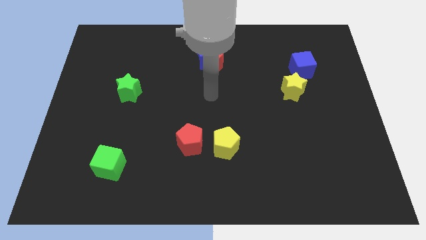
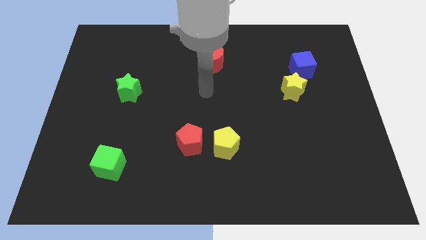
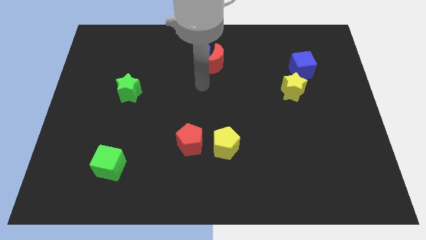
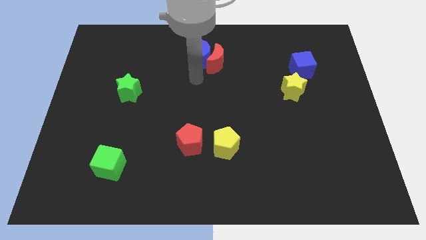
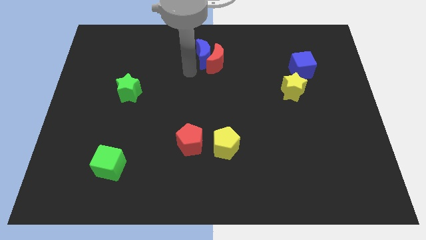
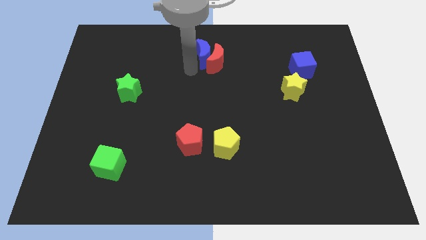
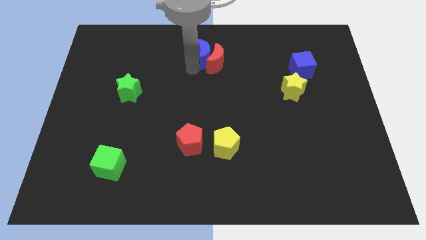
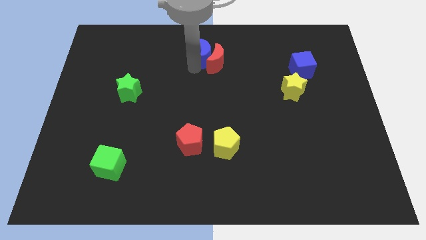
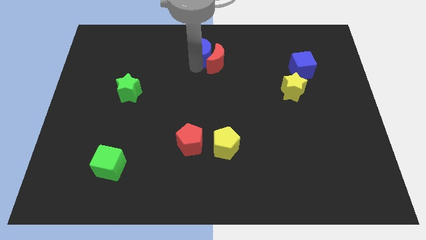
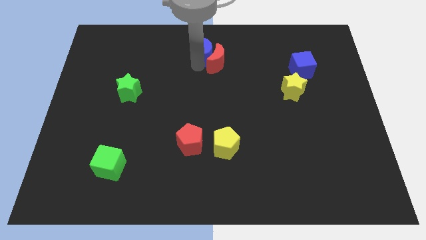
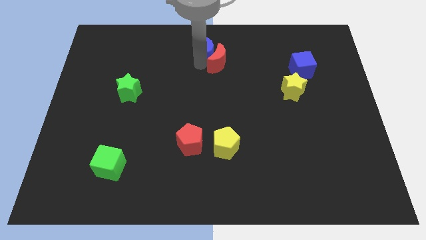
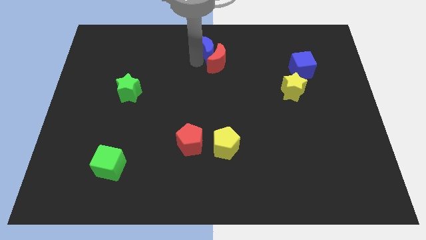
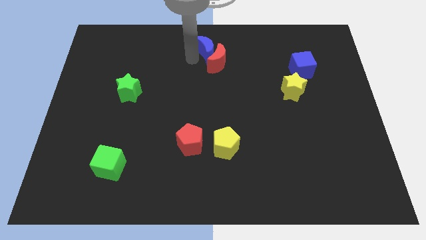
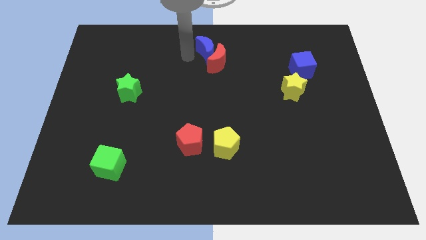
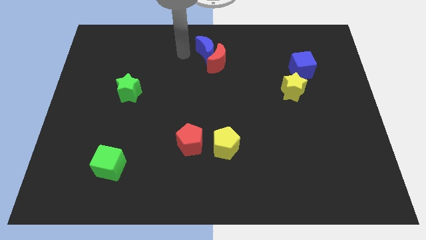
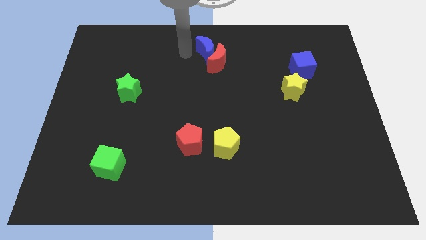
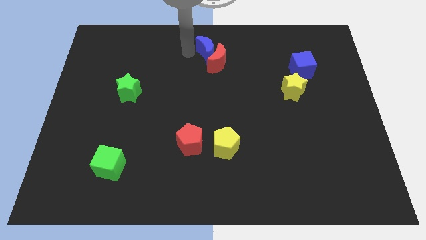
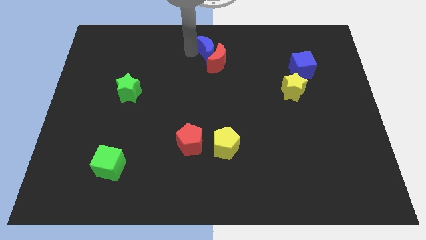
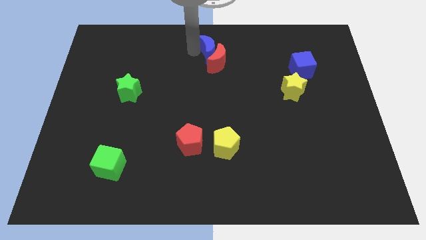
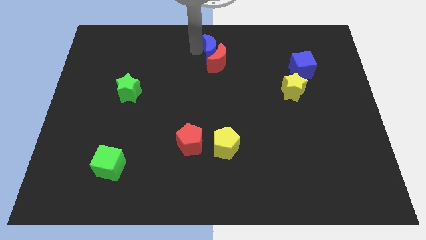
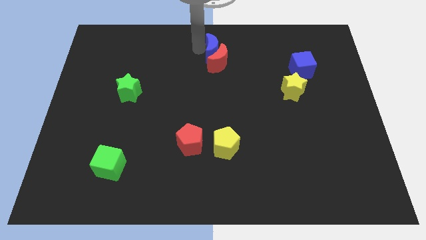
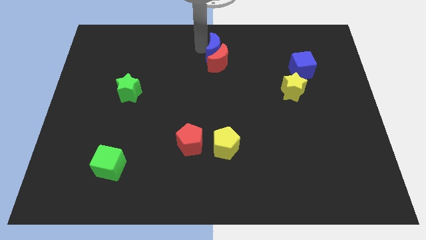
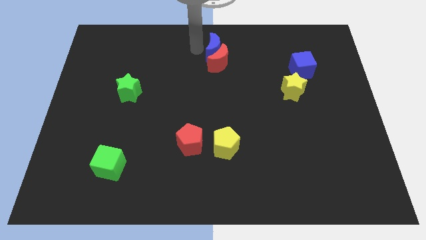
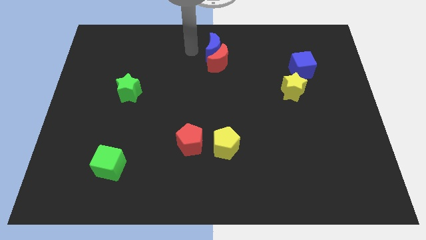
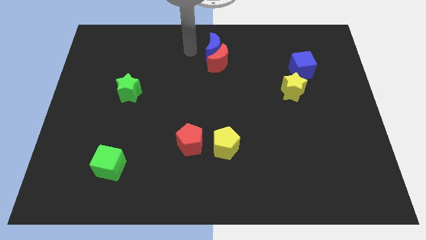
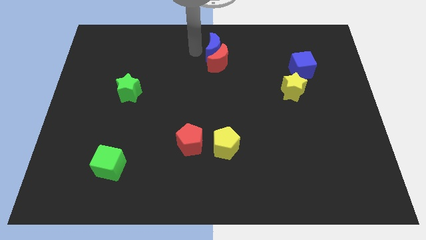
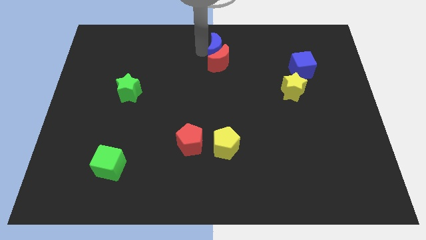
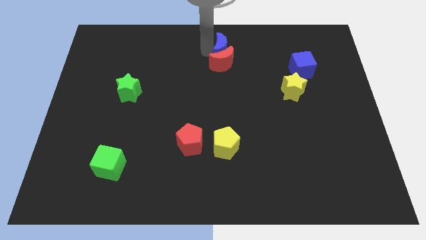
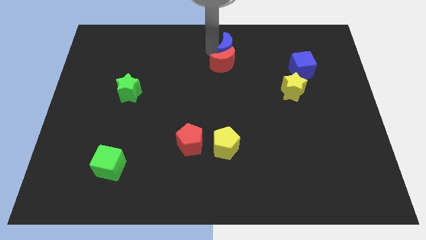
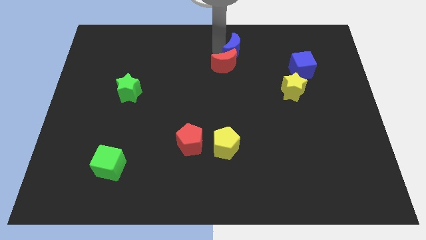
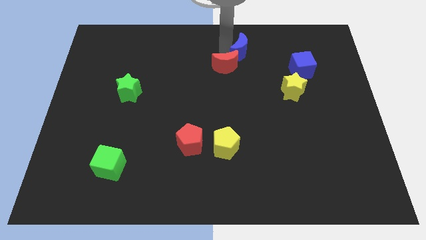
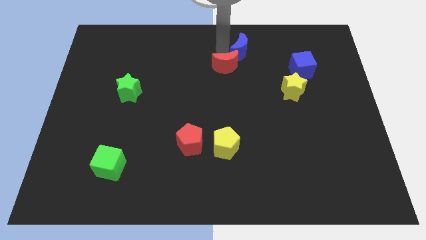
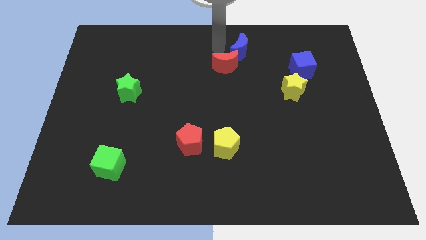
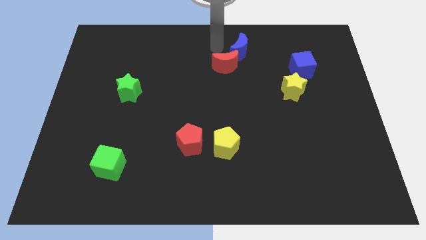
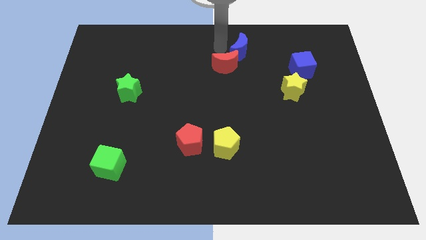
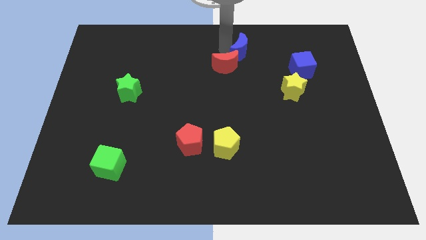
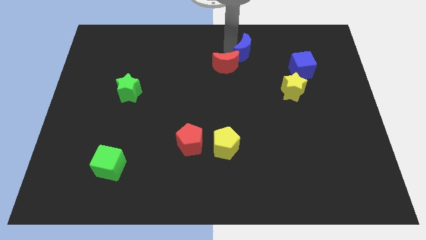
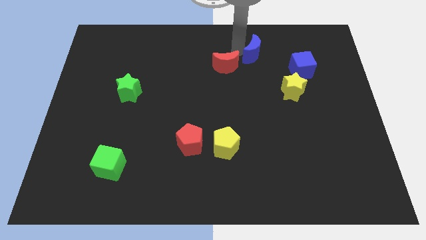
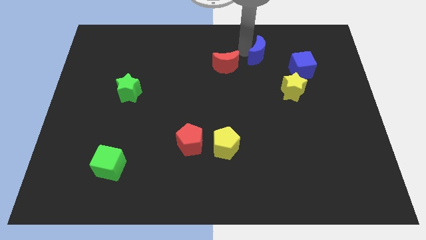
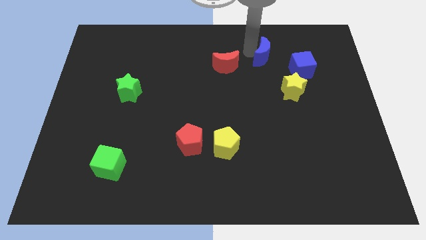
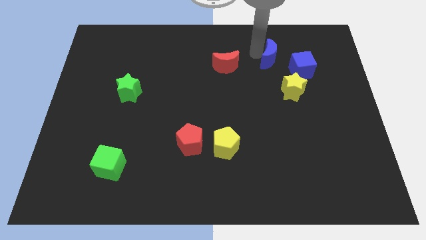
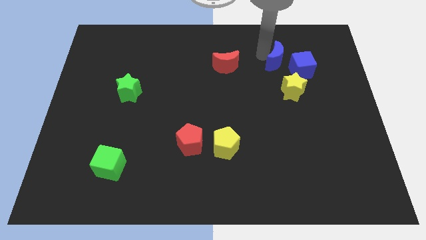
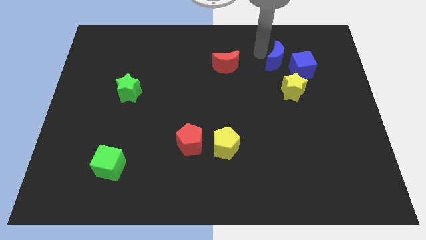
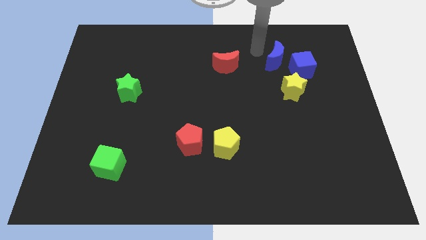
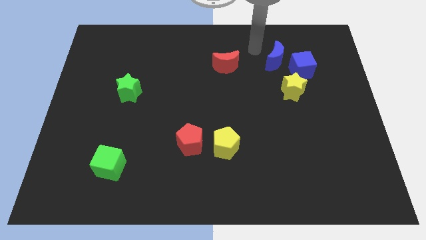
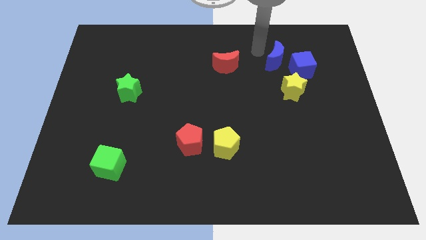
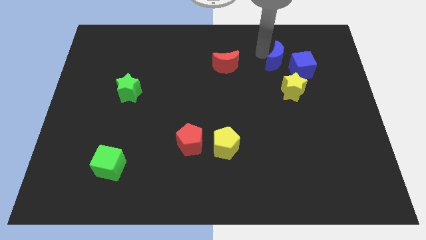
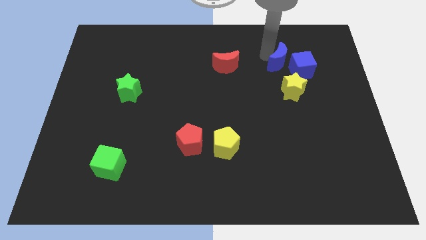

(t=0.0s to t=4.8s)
move the blue moon towards the blue cube

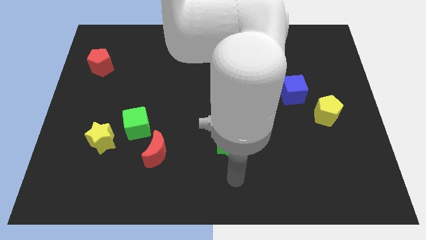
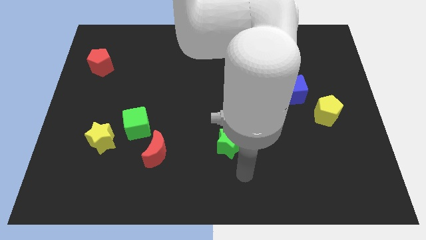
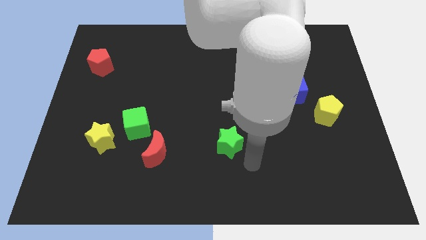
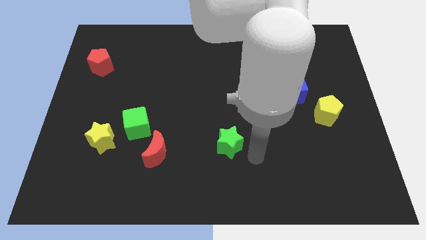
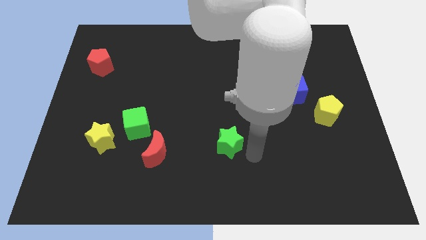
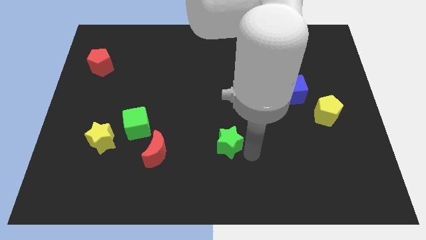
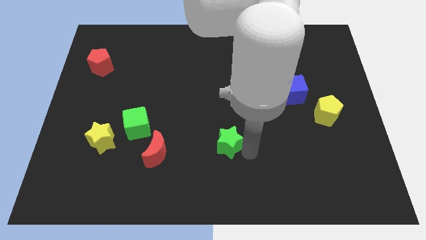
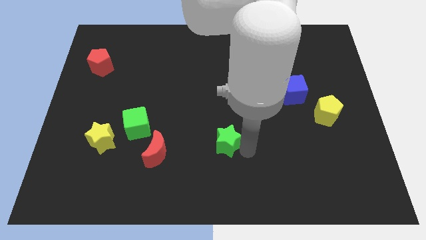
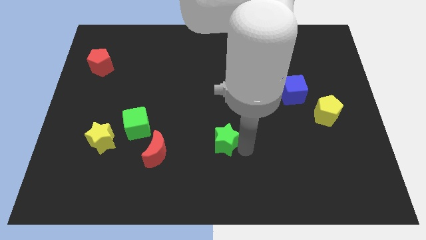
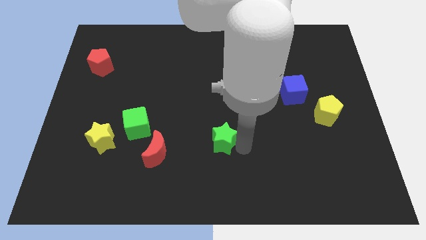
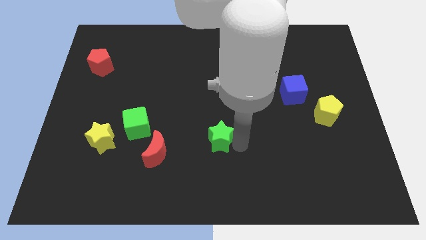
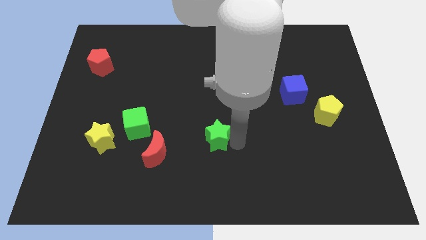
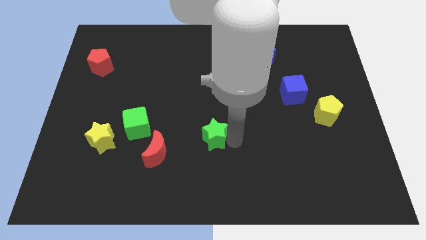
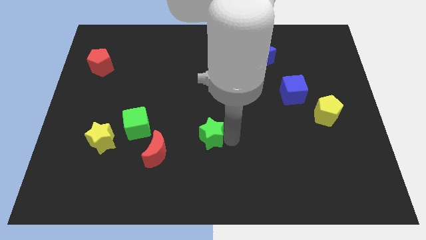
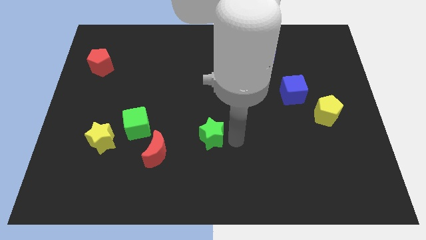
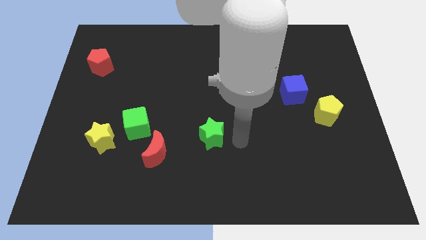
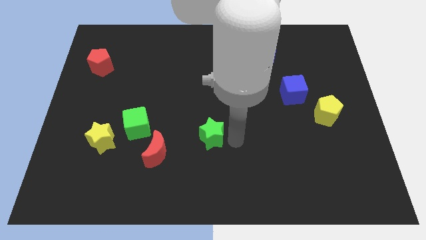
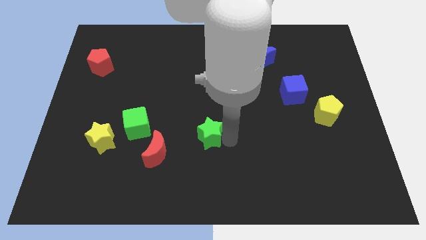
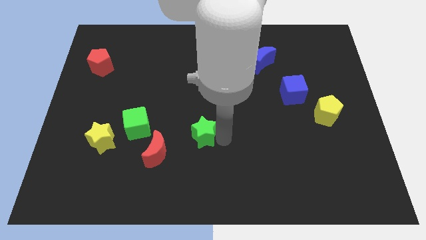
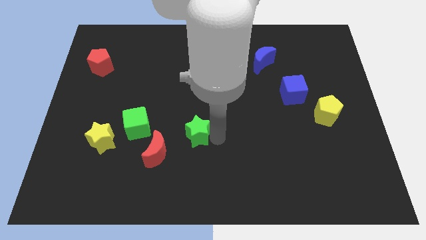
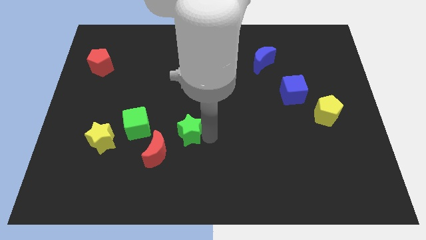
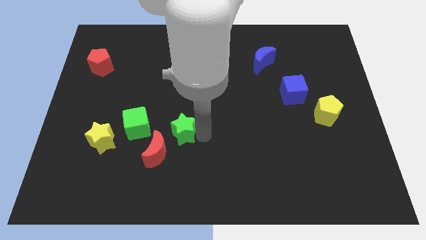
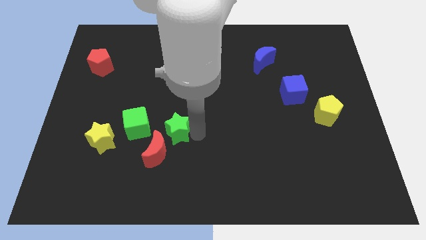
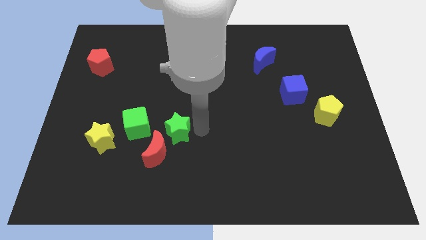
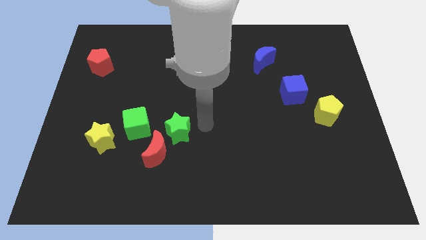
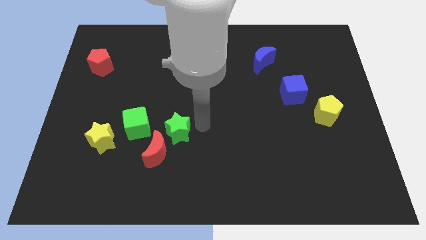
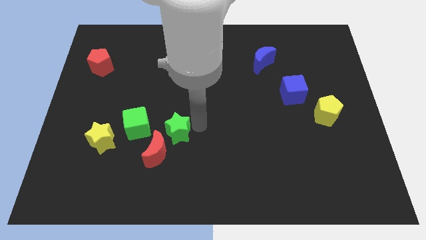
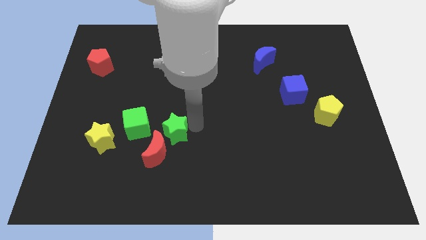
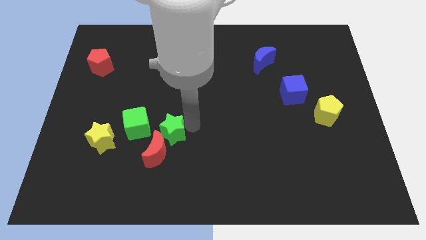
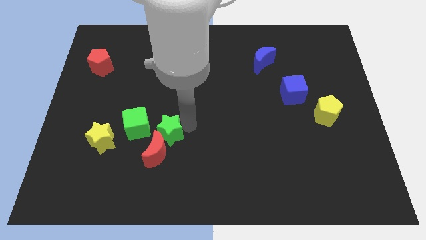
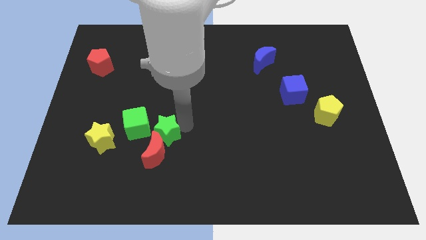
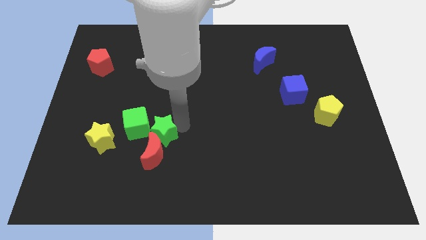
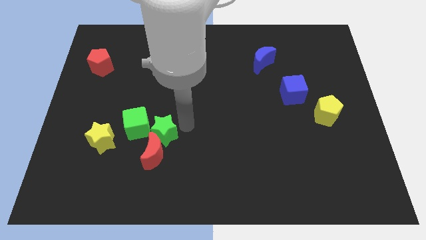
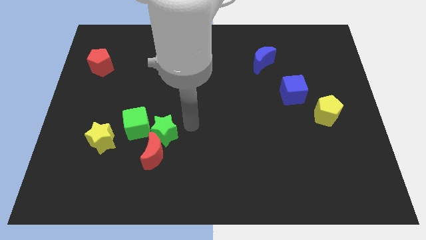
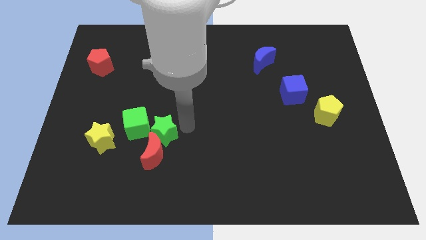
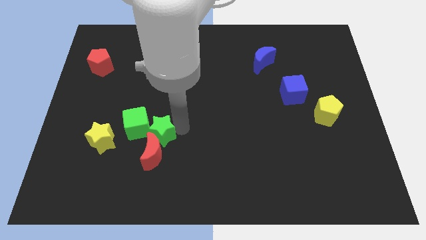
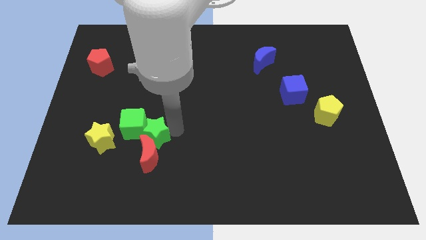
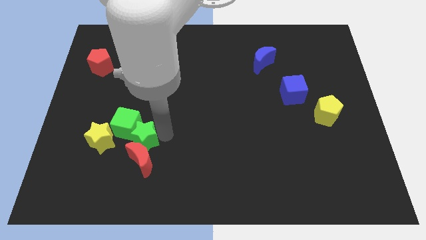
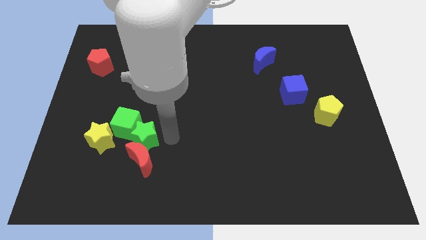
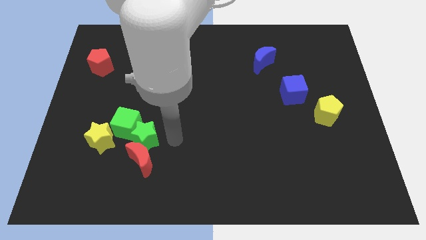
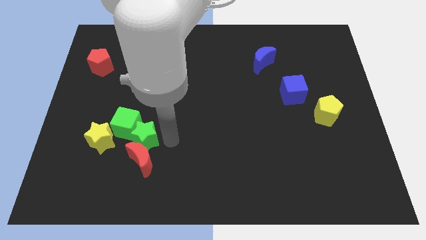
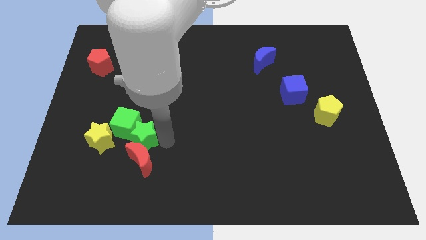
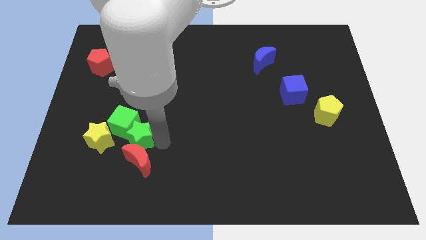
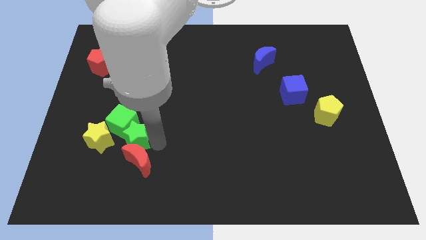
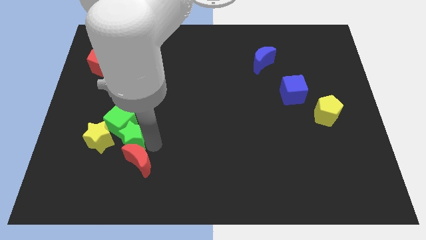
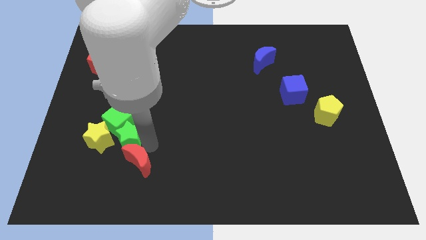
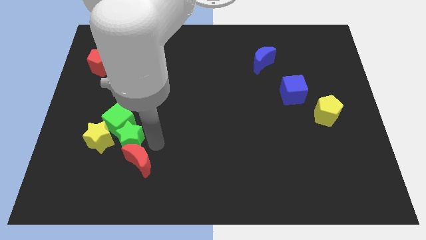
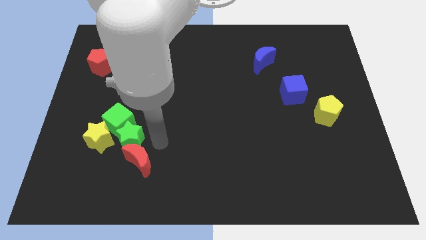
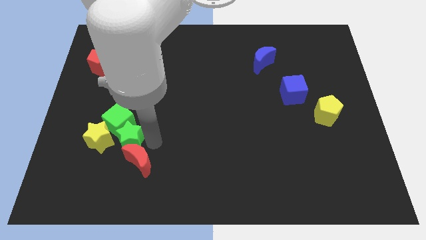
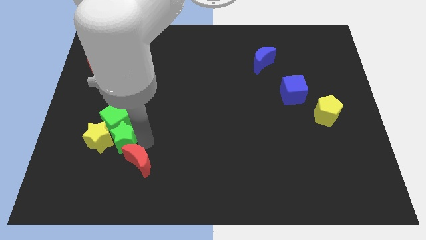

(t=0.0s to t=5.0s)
move the green star close to the yellow star
